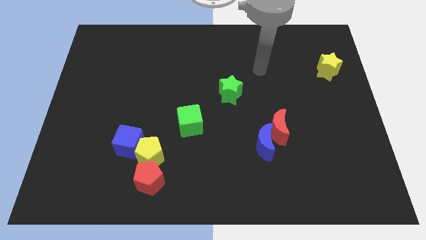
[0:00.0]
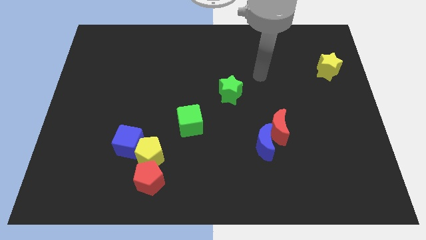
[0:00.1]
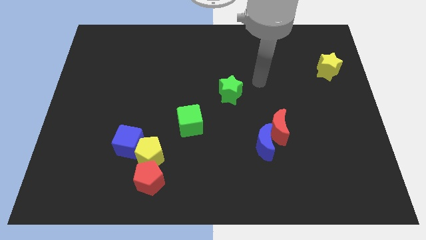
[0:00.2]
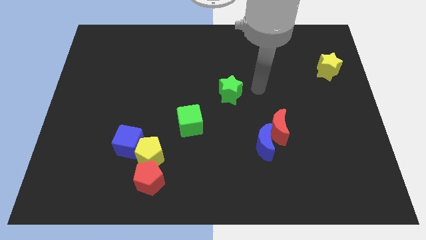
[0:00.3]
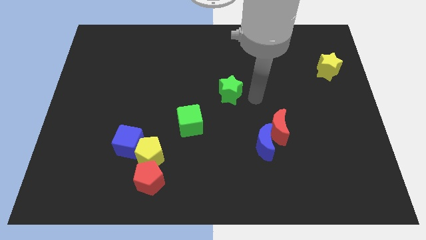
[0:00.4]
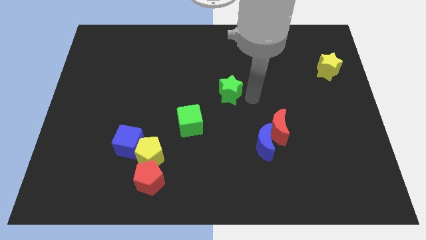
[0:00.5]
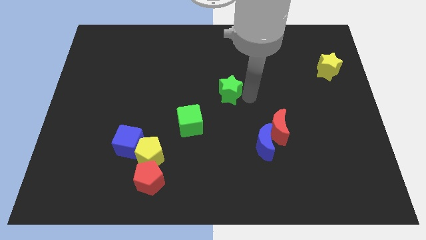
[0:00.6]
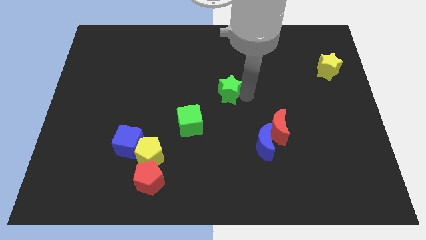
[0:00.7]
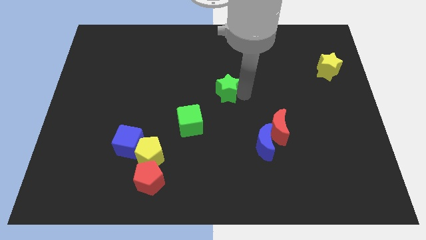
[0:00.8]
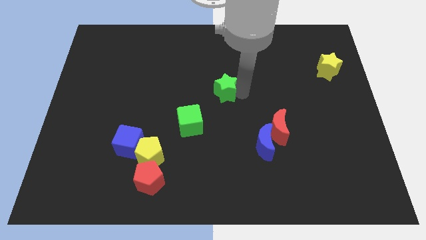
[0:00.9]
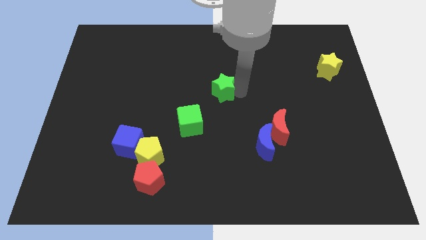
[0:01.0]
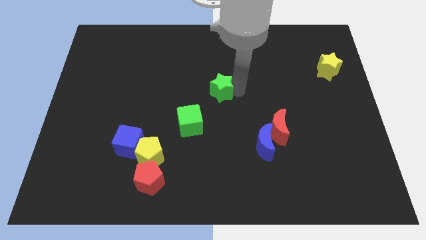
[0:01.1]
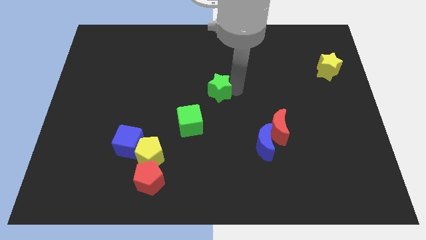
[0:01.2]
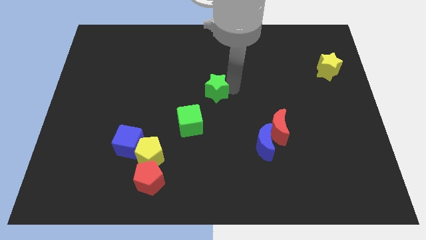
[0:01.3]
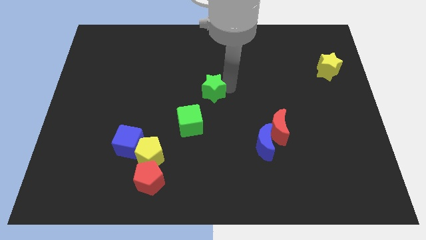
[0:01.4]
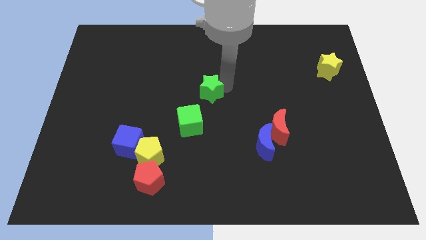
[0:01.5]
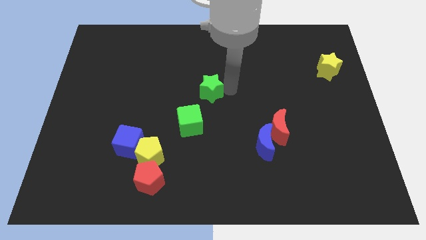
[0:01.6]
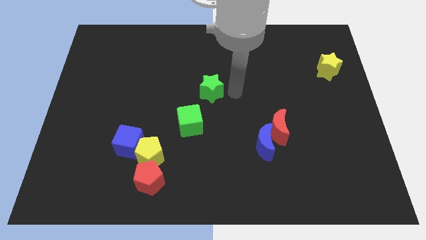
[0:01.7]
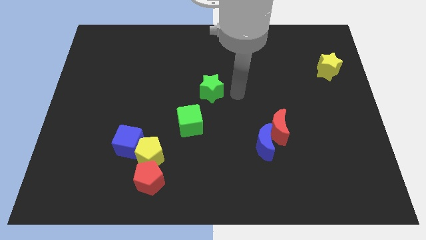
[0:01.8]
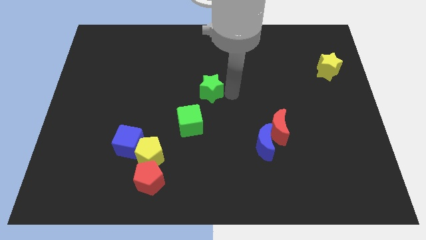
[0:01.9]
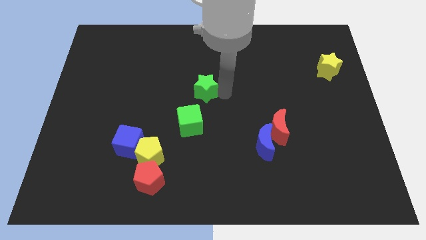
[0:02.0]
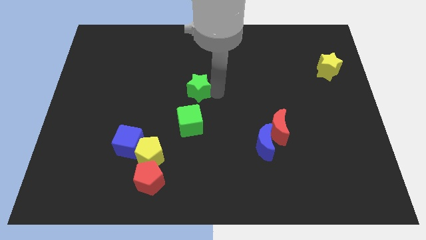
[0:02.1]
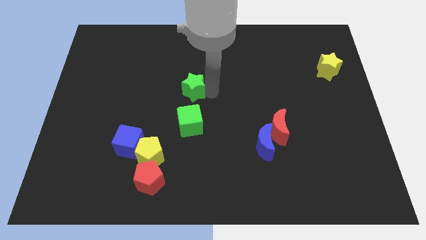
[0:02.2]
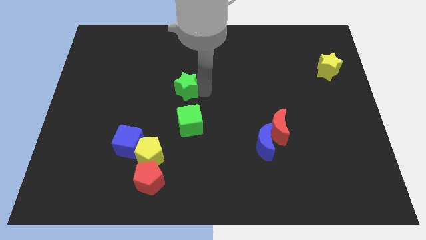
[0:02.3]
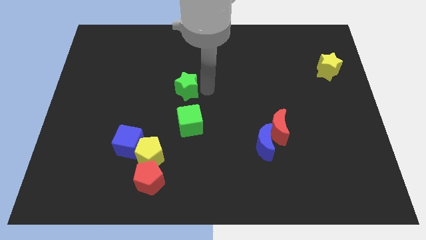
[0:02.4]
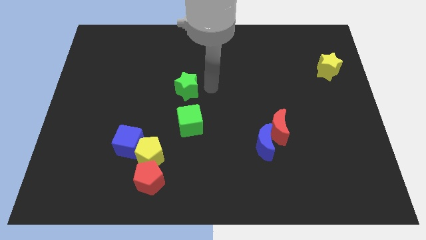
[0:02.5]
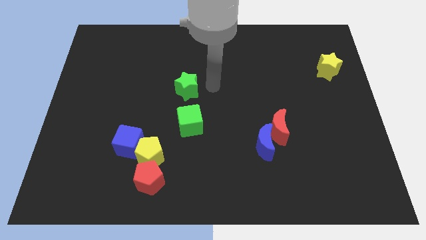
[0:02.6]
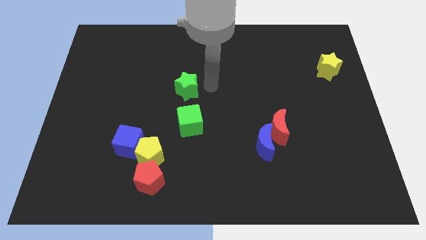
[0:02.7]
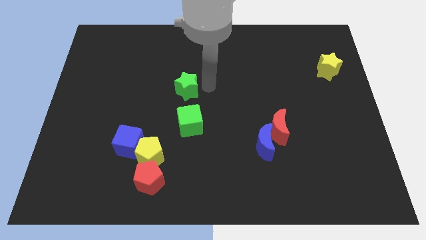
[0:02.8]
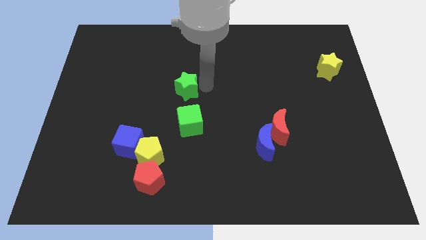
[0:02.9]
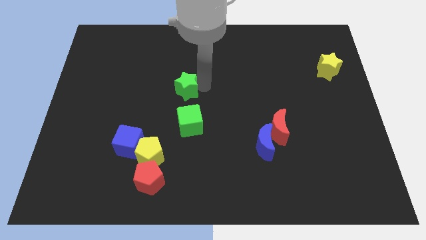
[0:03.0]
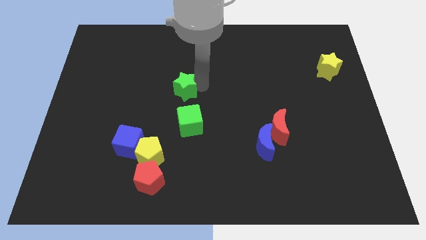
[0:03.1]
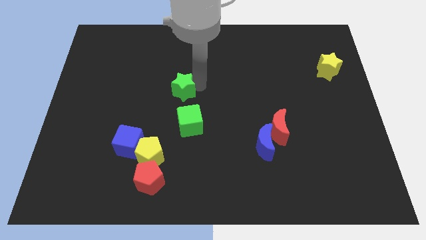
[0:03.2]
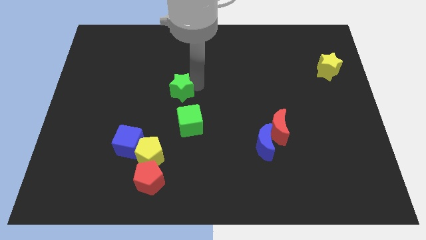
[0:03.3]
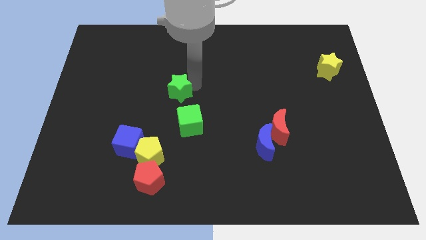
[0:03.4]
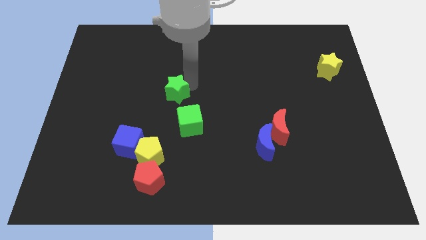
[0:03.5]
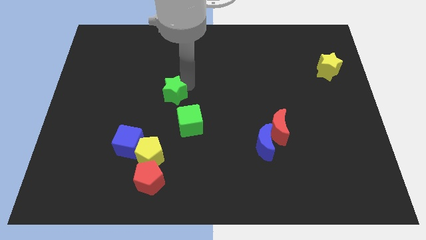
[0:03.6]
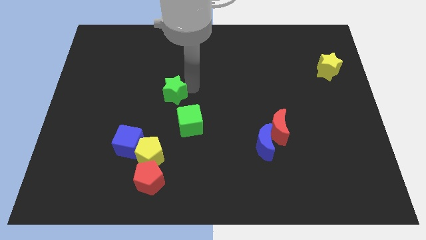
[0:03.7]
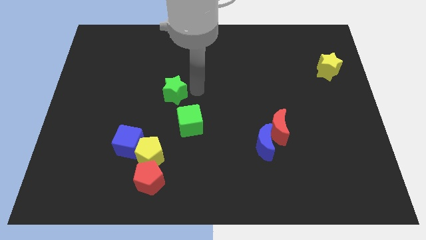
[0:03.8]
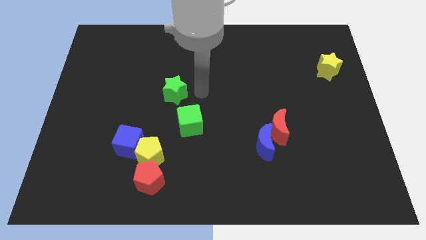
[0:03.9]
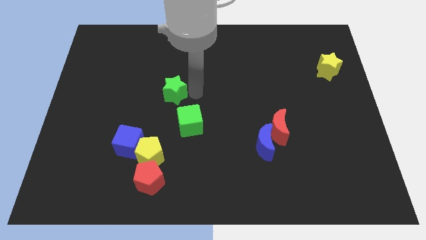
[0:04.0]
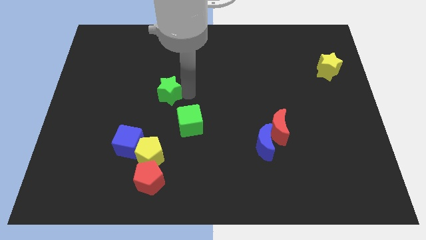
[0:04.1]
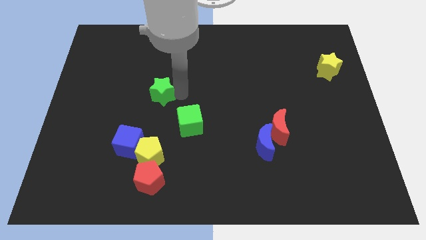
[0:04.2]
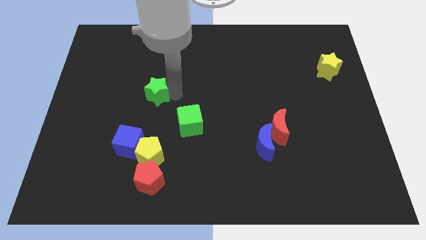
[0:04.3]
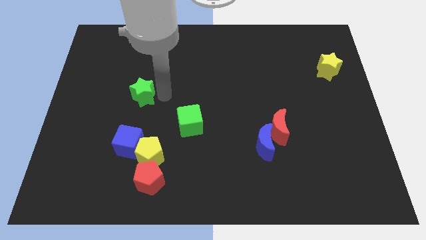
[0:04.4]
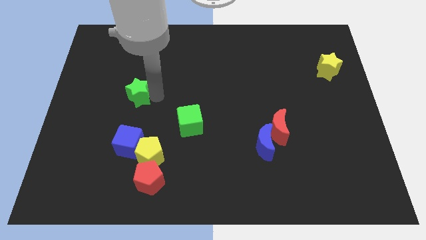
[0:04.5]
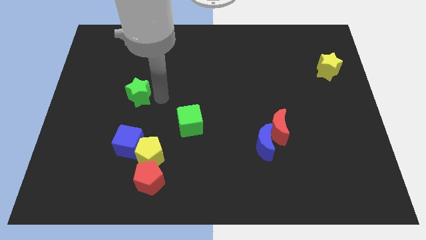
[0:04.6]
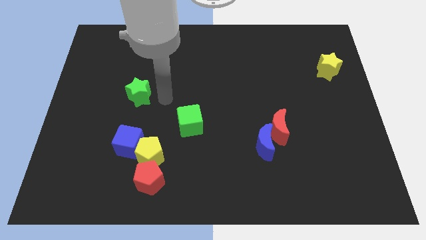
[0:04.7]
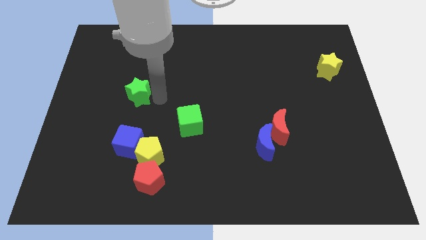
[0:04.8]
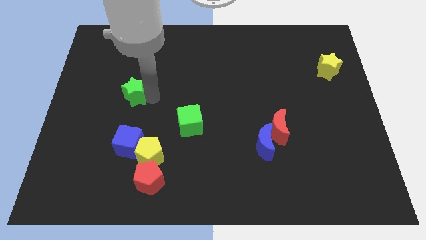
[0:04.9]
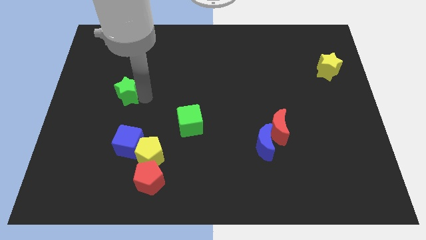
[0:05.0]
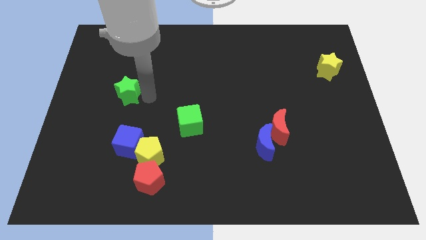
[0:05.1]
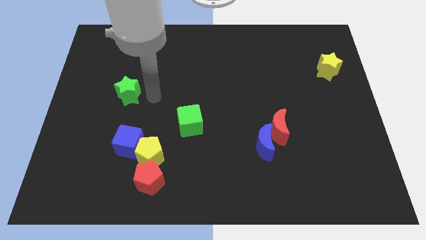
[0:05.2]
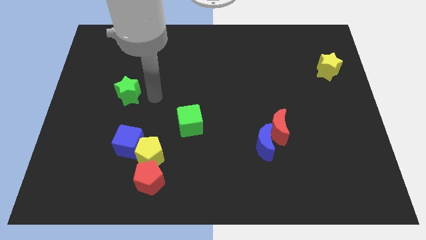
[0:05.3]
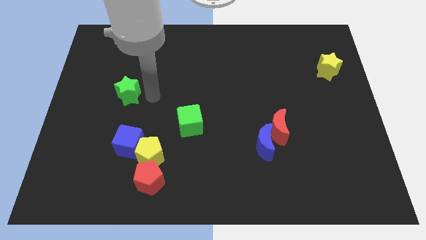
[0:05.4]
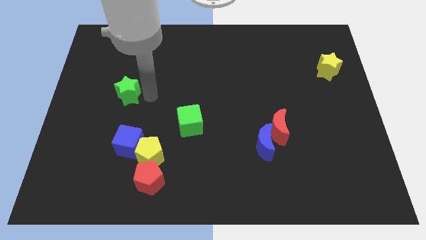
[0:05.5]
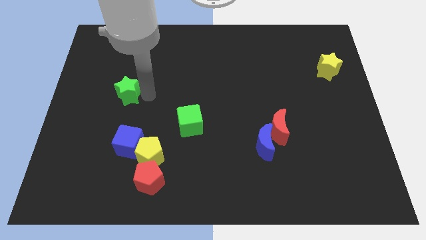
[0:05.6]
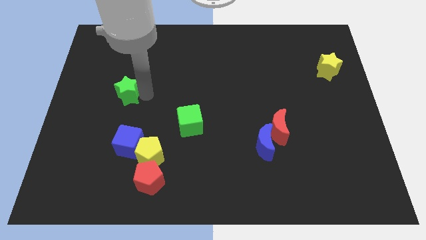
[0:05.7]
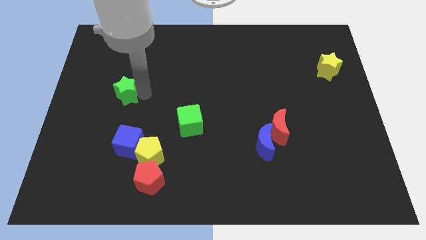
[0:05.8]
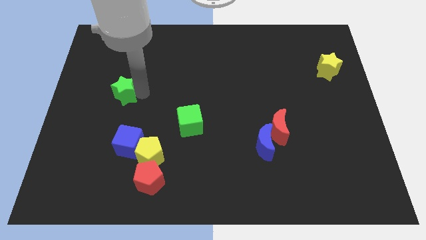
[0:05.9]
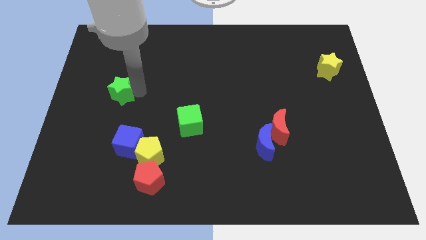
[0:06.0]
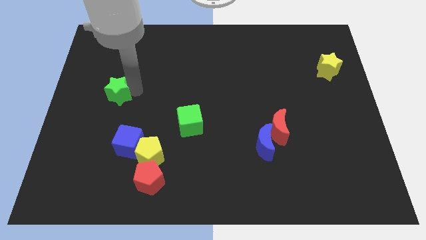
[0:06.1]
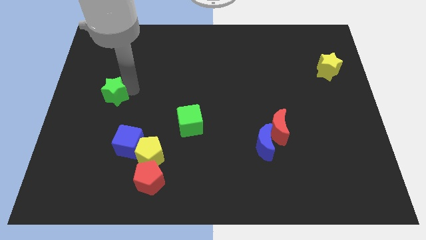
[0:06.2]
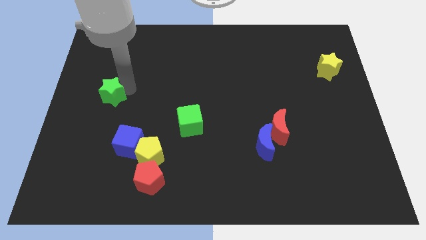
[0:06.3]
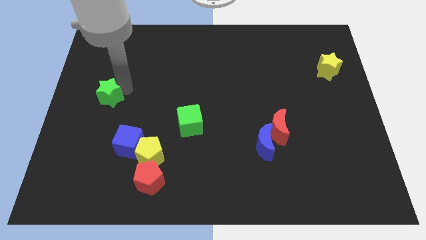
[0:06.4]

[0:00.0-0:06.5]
put the green star to the center left
